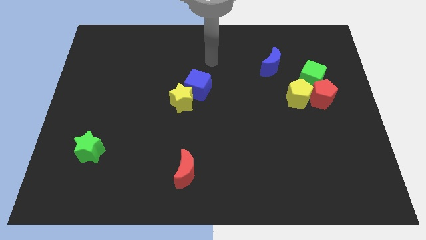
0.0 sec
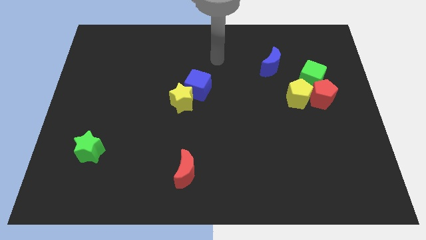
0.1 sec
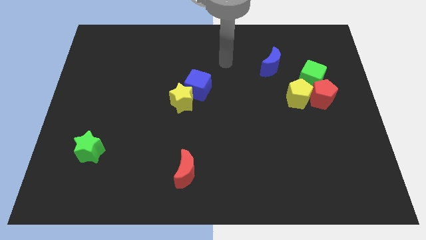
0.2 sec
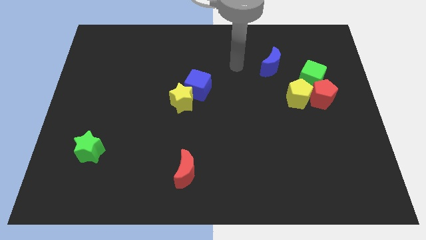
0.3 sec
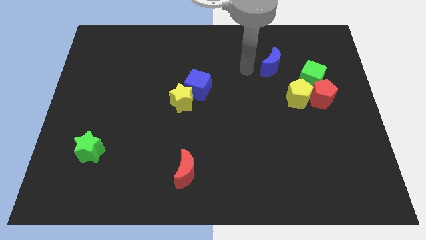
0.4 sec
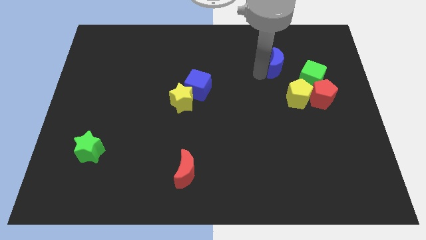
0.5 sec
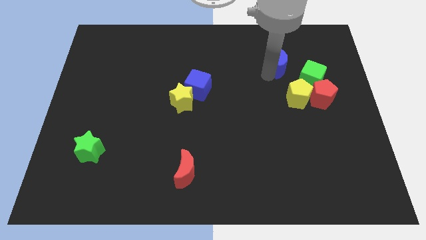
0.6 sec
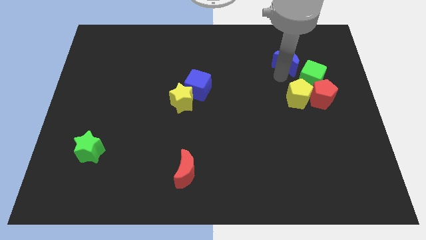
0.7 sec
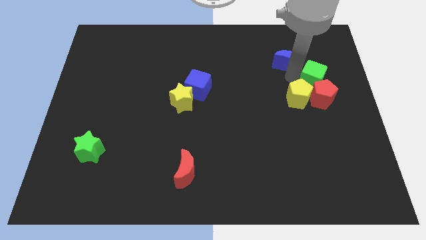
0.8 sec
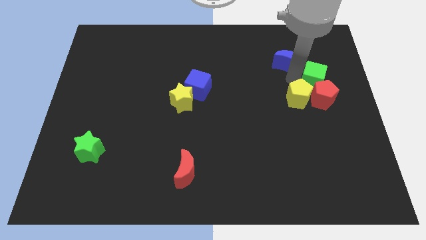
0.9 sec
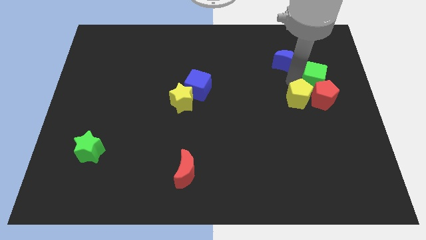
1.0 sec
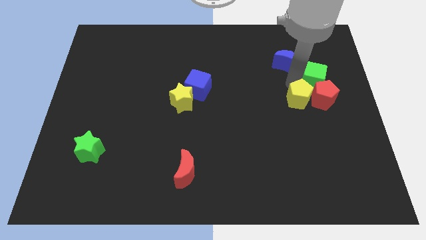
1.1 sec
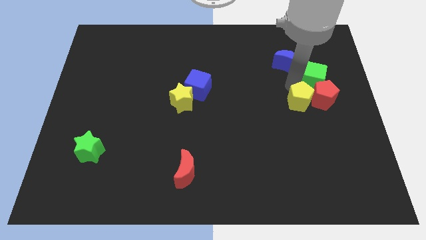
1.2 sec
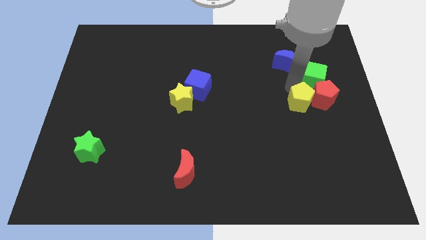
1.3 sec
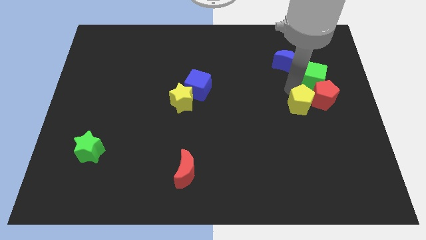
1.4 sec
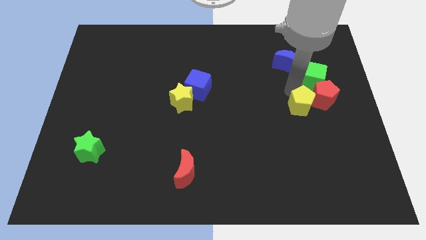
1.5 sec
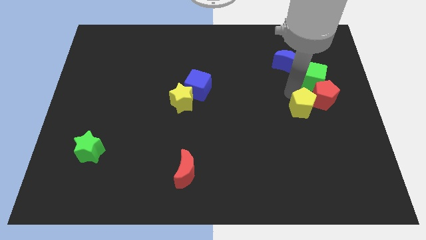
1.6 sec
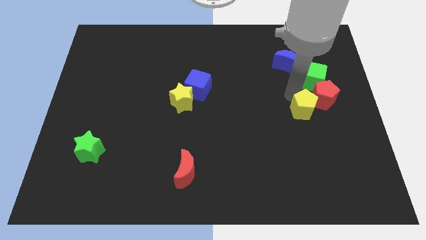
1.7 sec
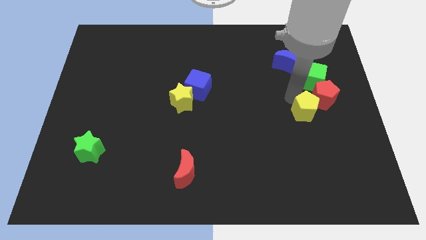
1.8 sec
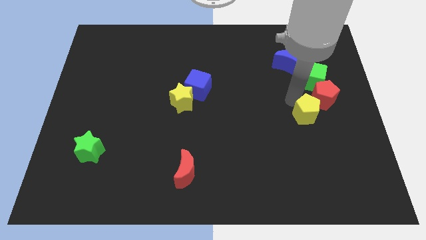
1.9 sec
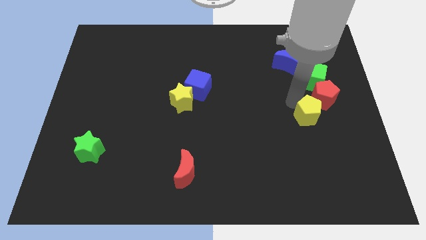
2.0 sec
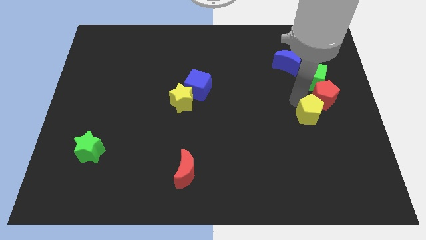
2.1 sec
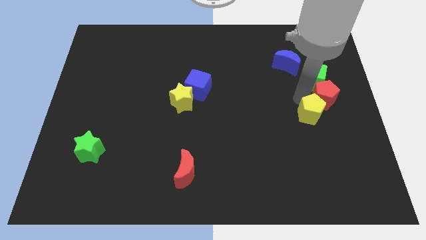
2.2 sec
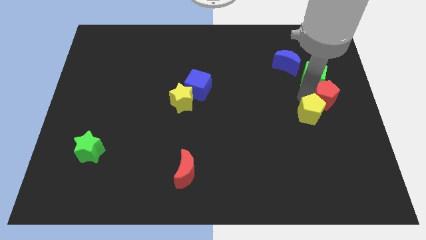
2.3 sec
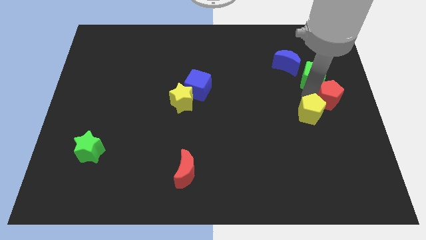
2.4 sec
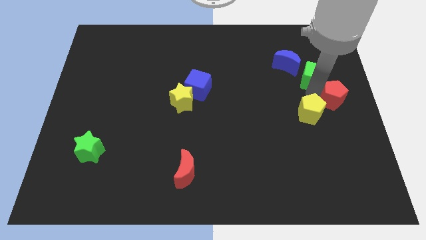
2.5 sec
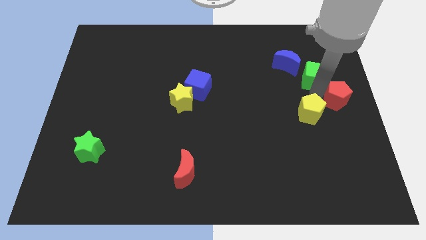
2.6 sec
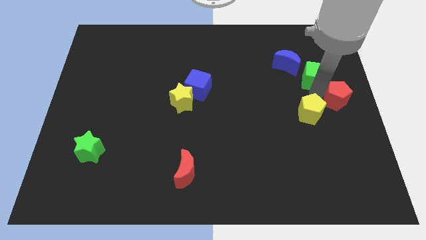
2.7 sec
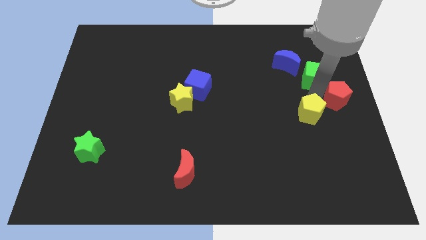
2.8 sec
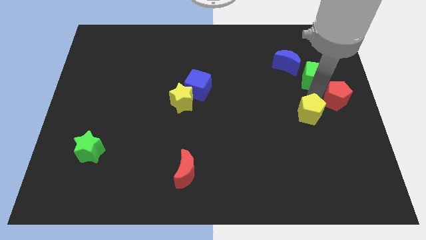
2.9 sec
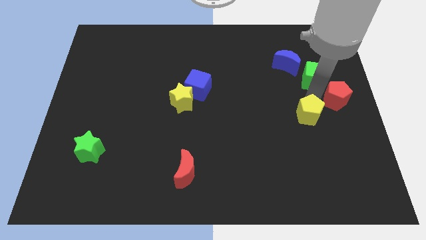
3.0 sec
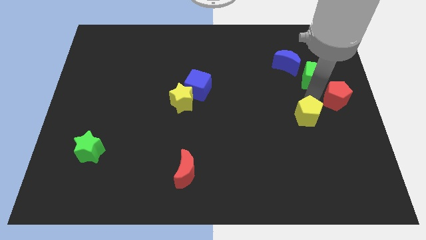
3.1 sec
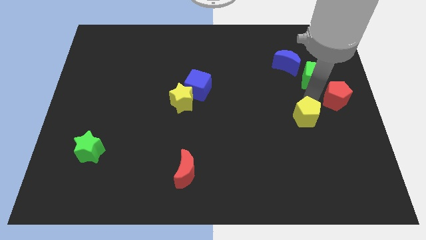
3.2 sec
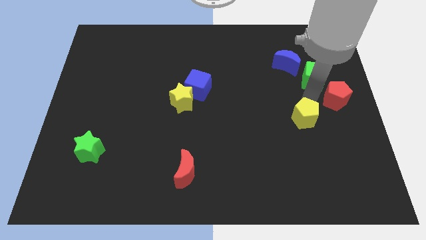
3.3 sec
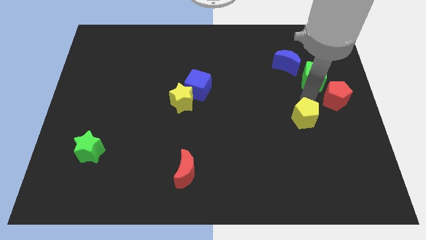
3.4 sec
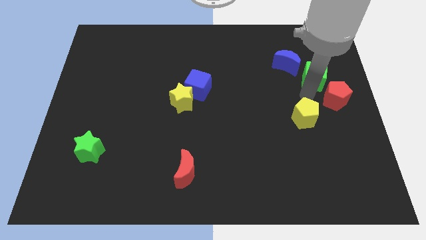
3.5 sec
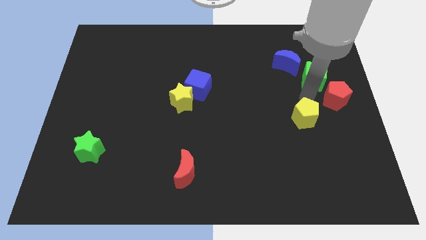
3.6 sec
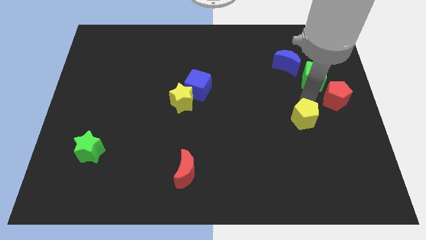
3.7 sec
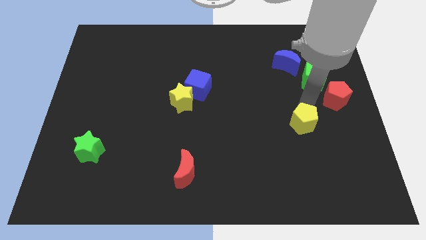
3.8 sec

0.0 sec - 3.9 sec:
move the yellow pentagon down a little

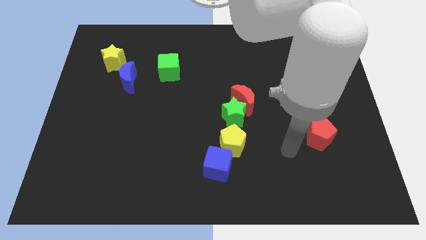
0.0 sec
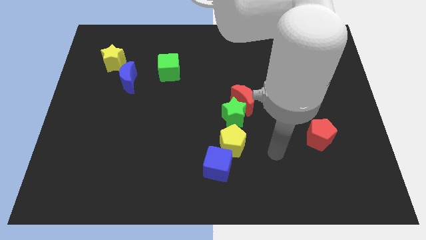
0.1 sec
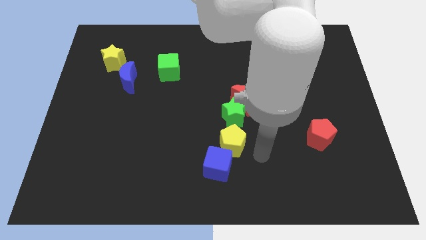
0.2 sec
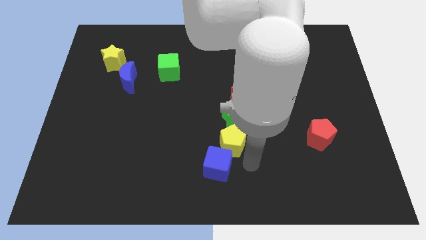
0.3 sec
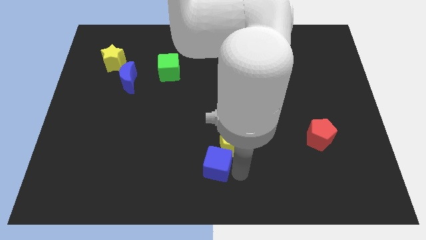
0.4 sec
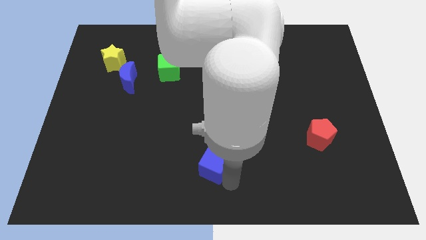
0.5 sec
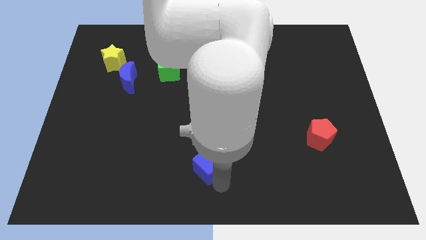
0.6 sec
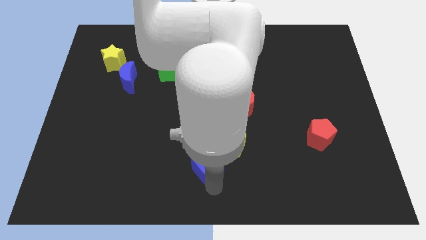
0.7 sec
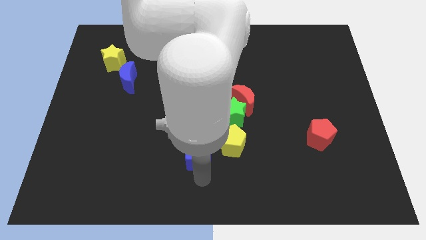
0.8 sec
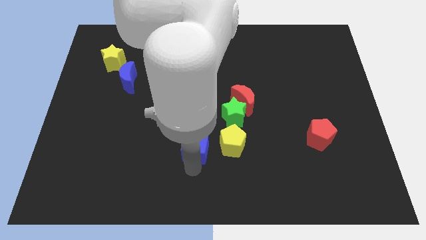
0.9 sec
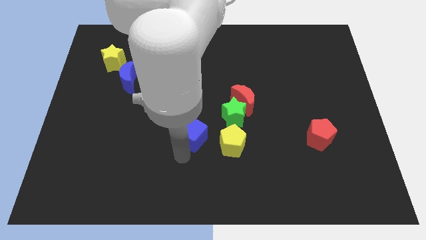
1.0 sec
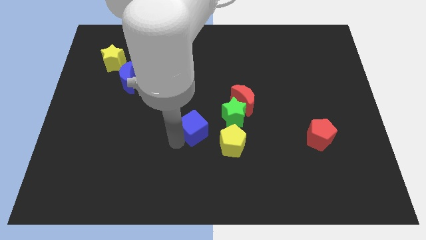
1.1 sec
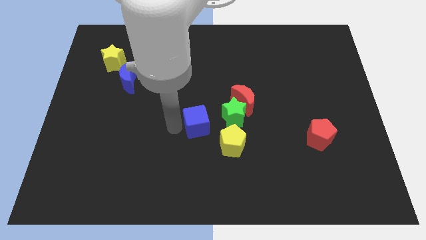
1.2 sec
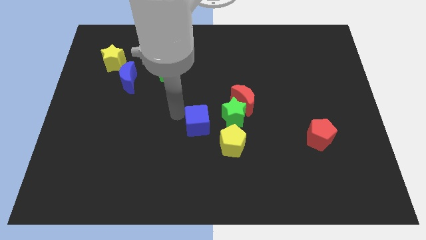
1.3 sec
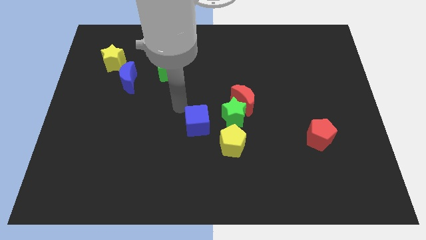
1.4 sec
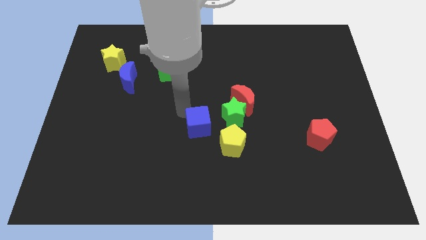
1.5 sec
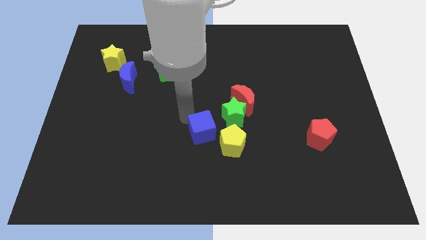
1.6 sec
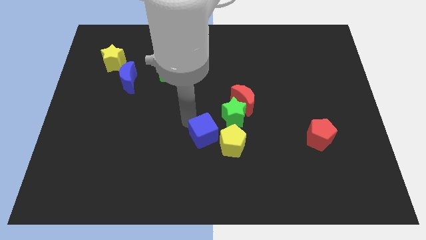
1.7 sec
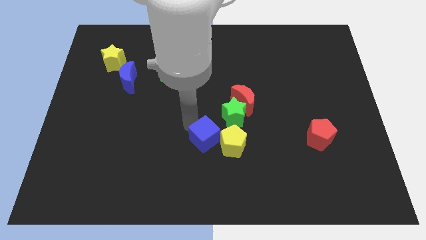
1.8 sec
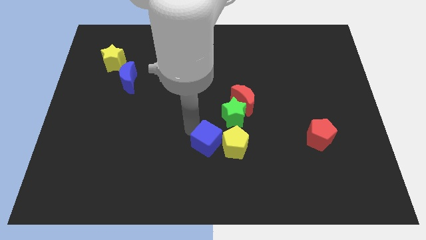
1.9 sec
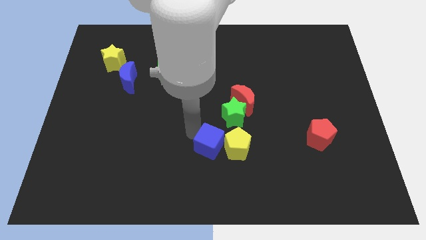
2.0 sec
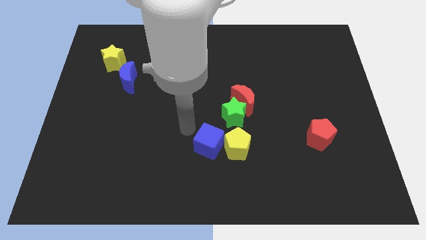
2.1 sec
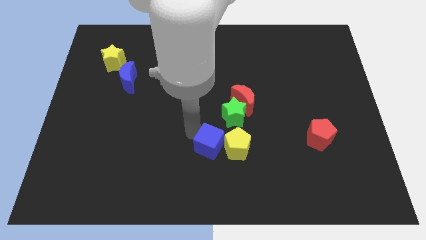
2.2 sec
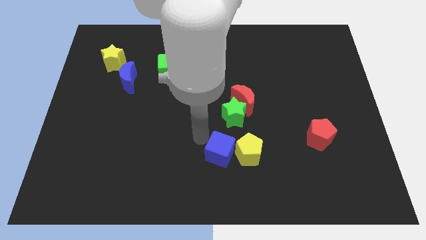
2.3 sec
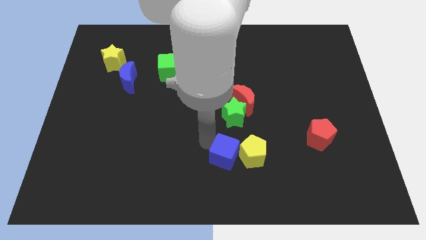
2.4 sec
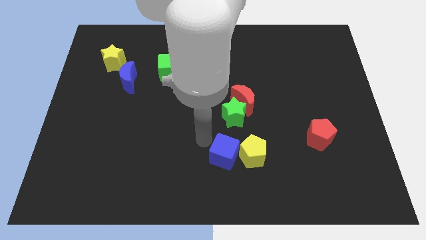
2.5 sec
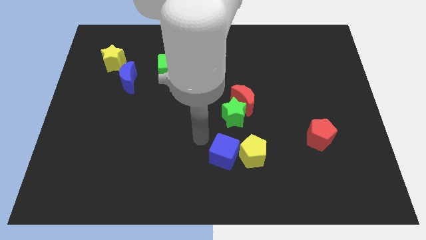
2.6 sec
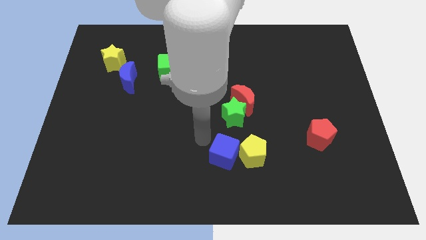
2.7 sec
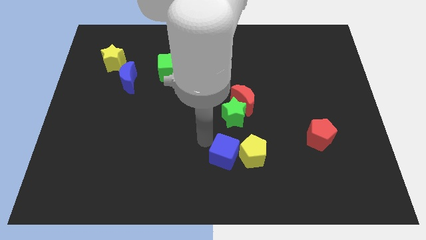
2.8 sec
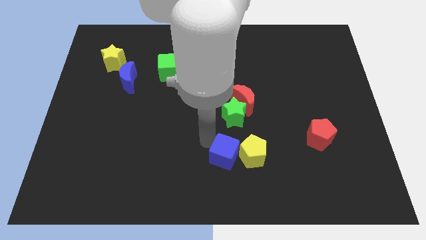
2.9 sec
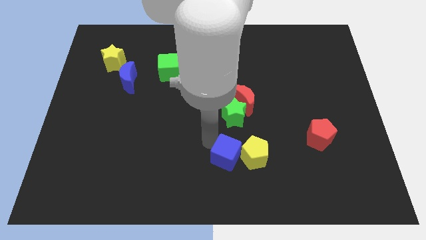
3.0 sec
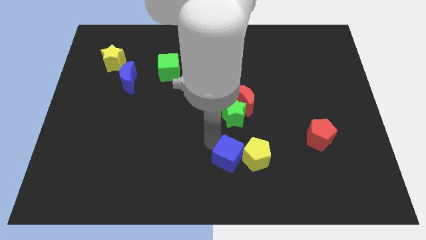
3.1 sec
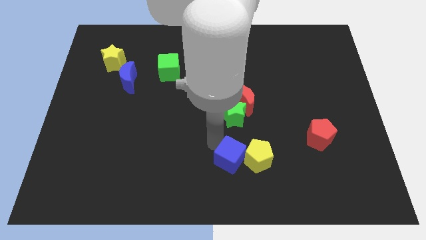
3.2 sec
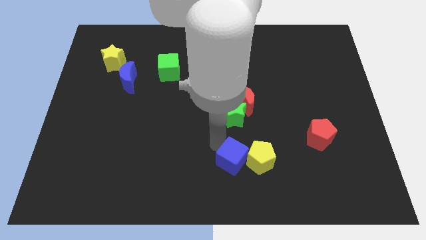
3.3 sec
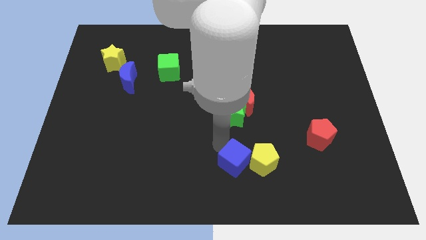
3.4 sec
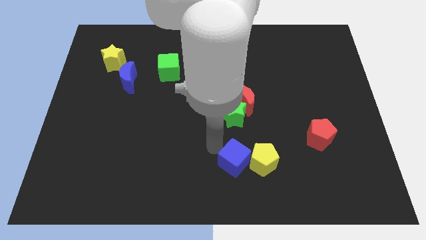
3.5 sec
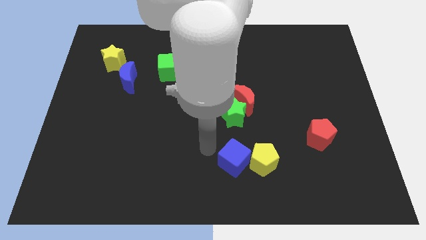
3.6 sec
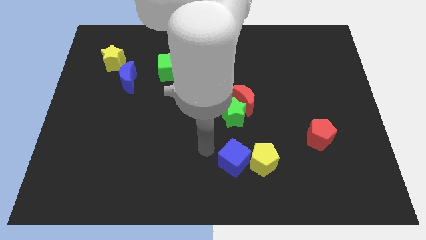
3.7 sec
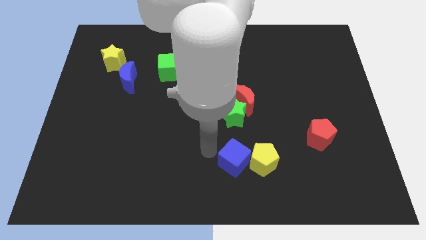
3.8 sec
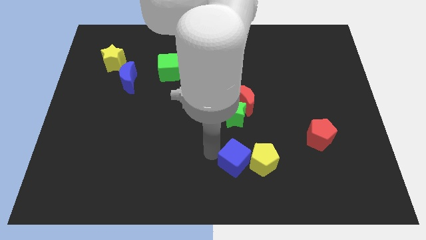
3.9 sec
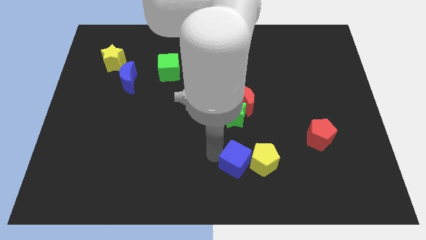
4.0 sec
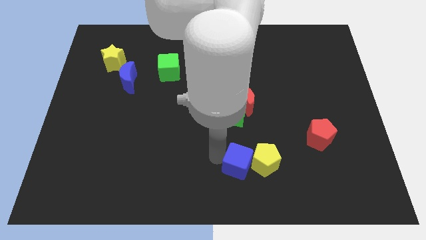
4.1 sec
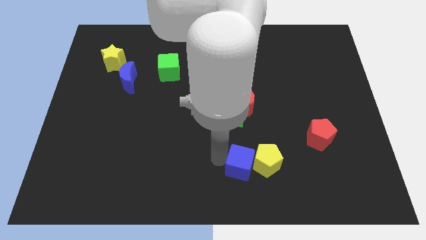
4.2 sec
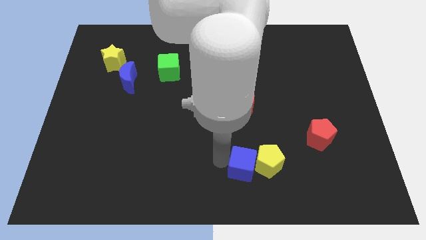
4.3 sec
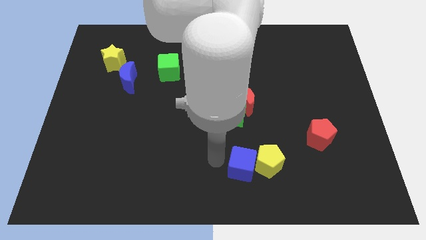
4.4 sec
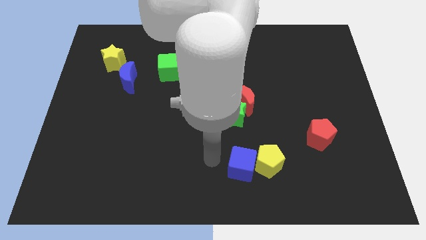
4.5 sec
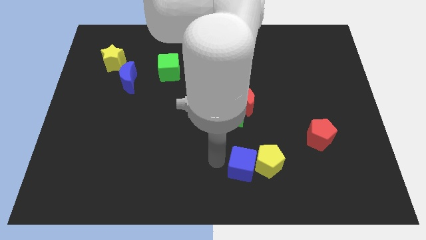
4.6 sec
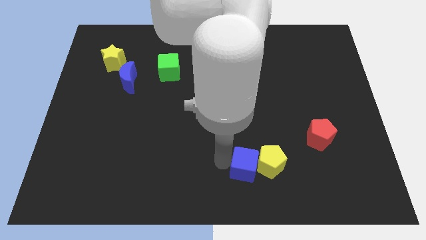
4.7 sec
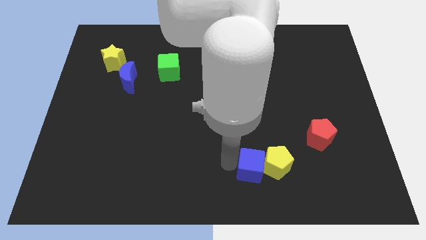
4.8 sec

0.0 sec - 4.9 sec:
move the blue cube somewhat to the right
